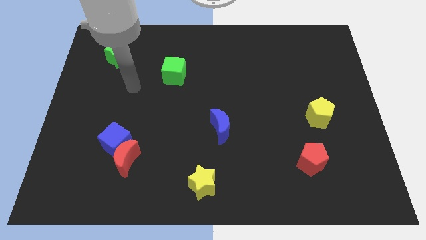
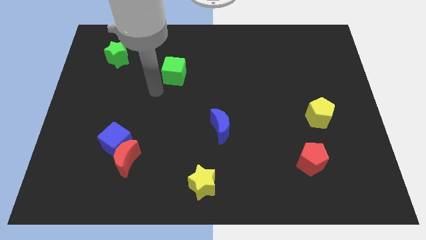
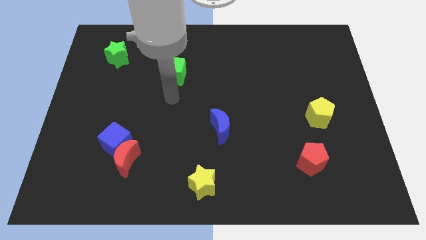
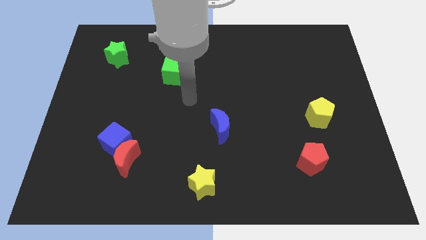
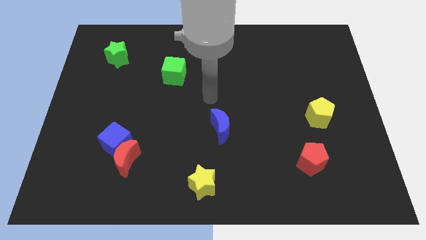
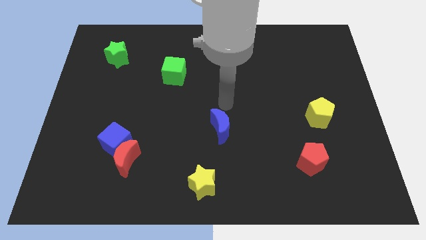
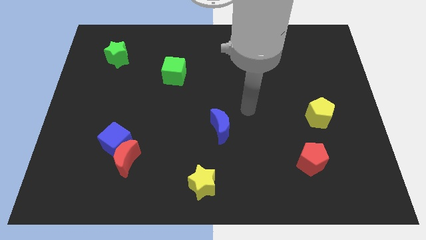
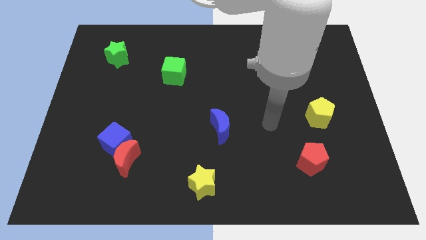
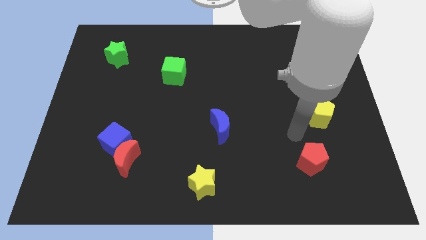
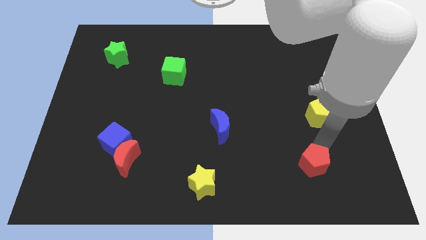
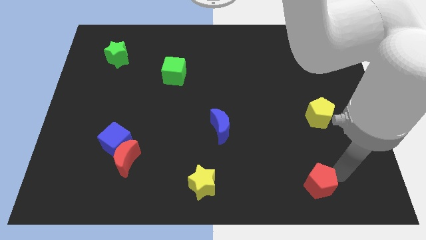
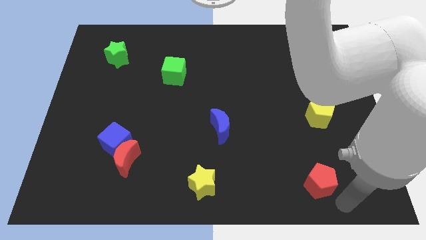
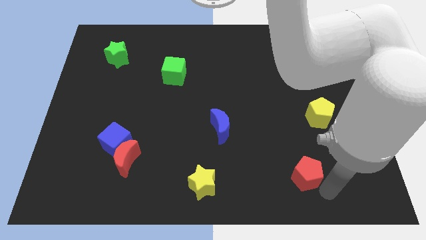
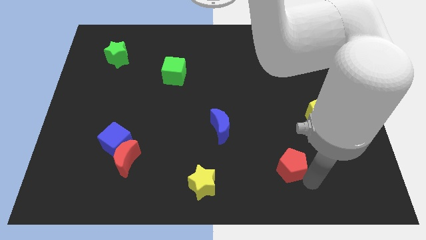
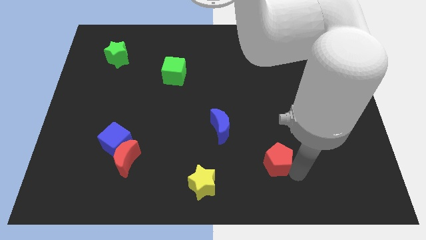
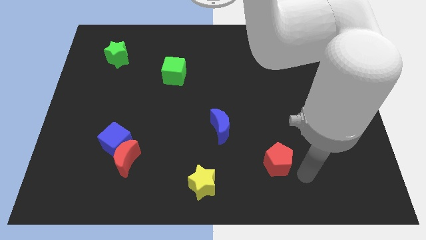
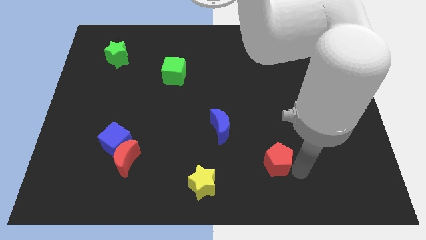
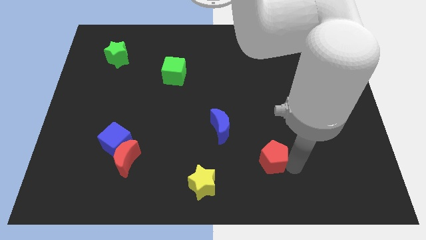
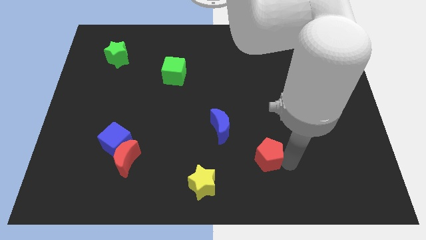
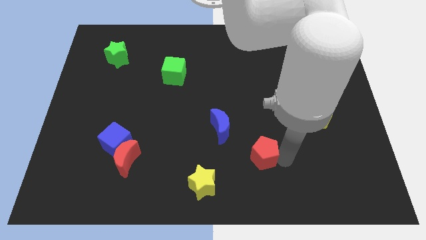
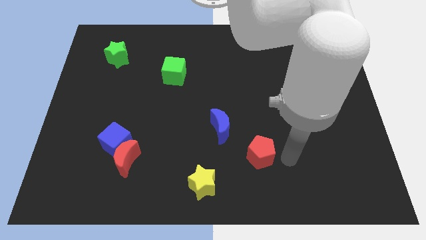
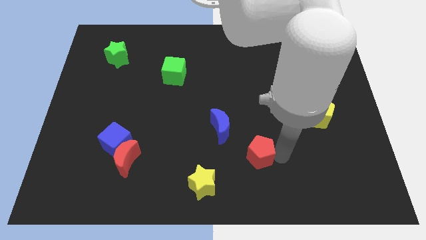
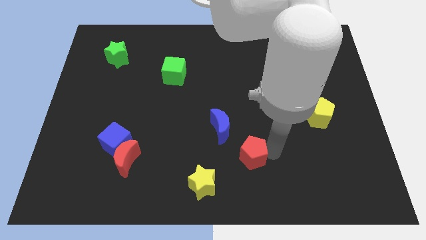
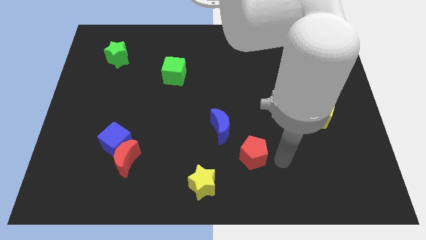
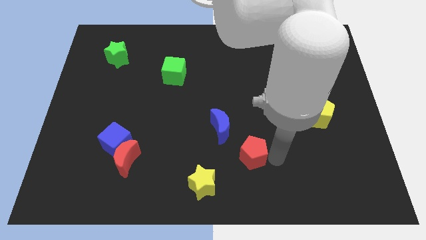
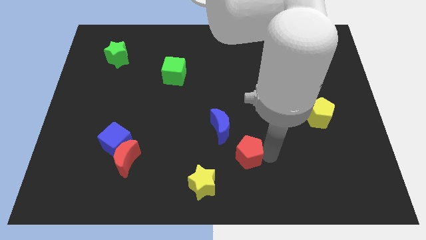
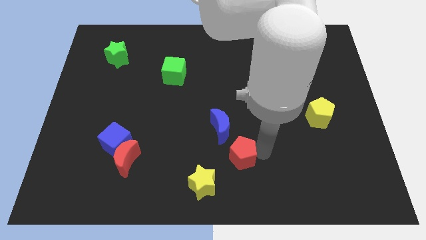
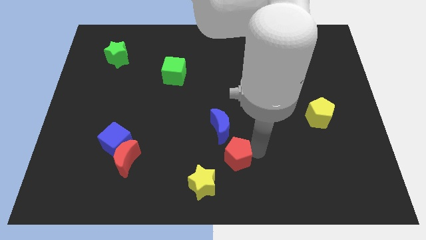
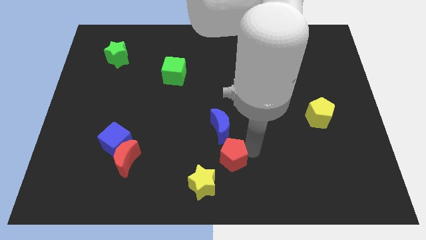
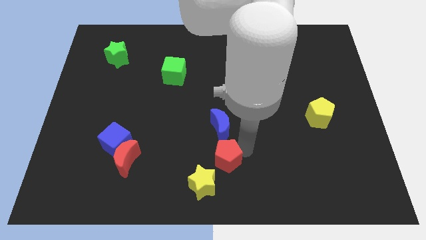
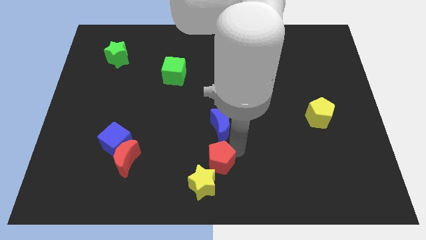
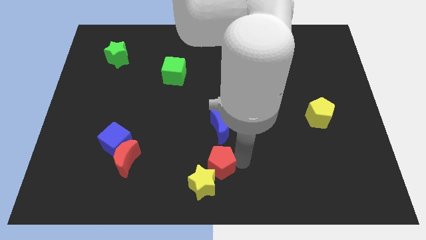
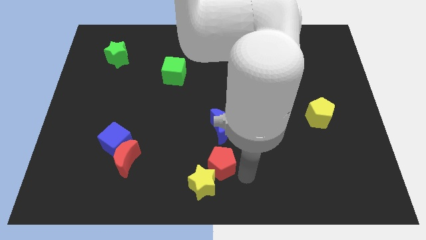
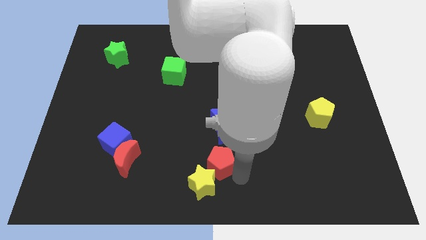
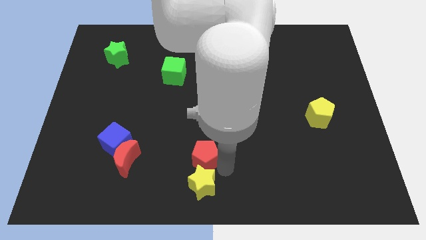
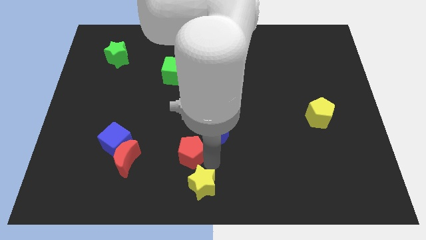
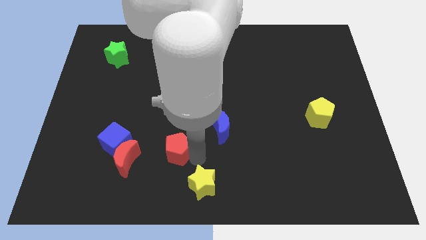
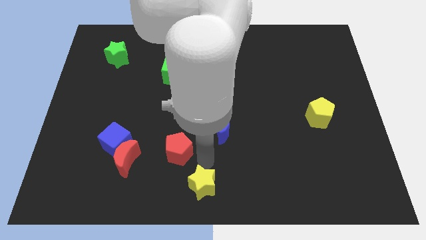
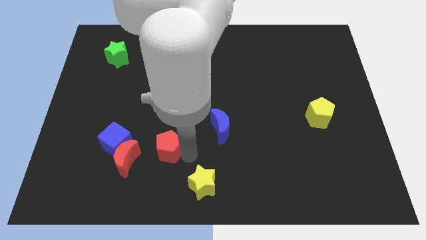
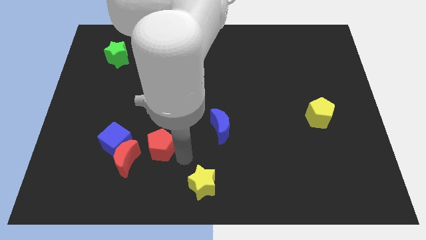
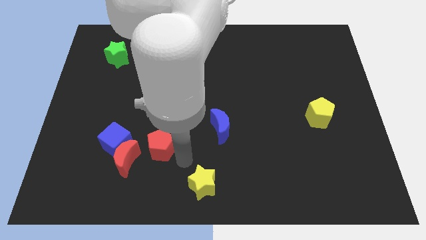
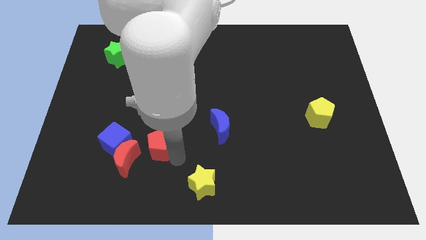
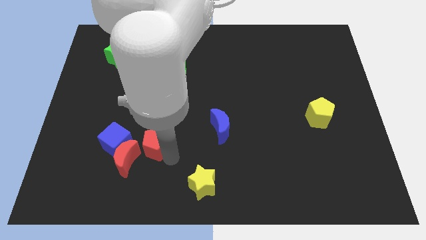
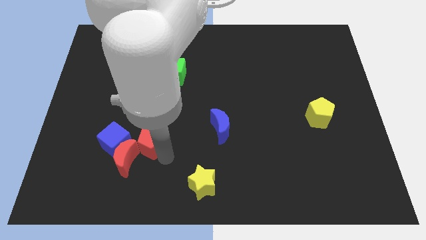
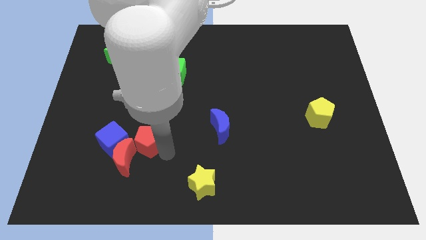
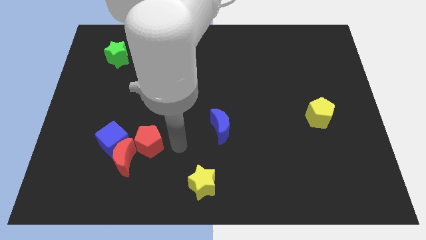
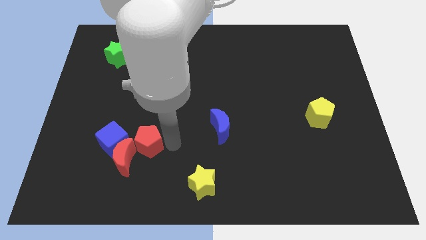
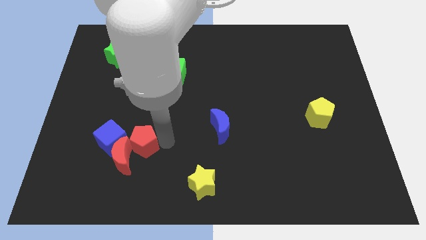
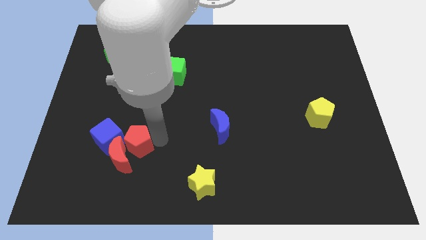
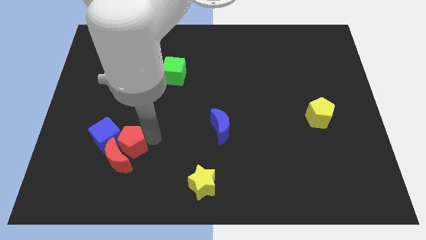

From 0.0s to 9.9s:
put the red pentagon towards the blue cube
